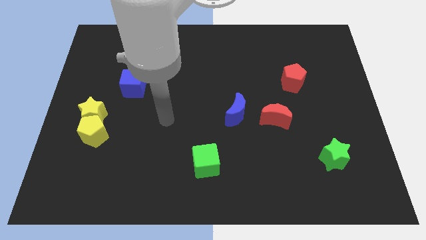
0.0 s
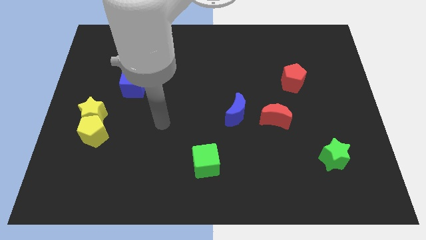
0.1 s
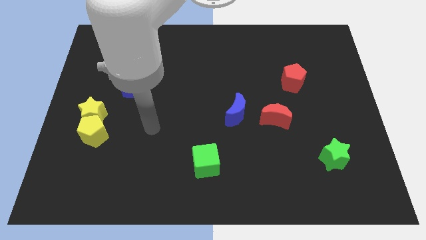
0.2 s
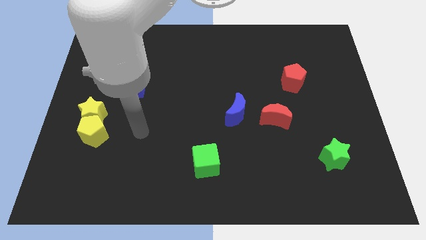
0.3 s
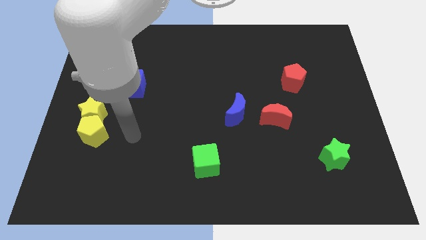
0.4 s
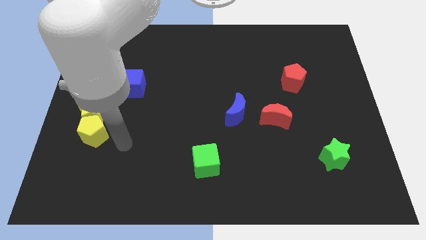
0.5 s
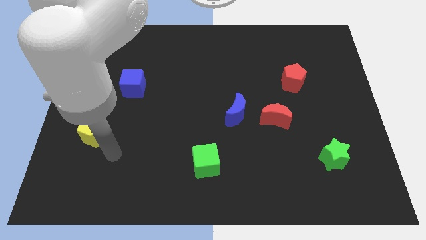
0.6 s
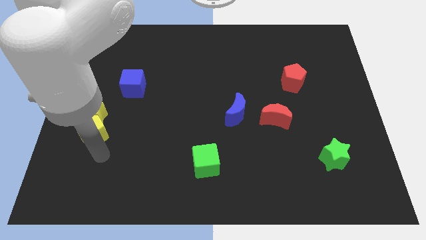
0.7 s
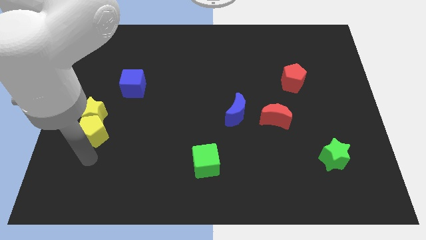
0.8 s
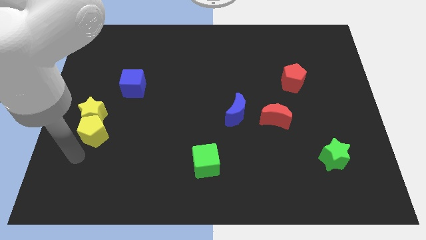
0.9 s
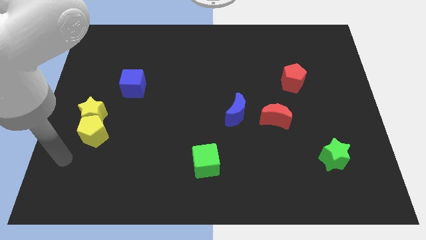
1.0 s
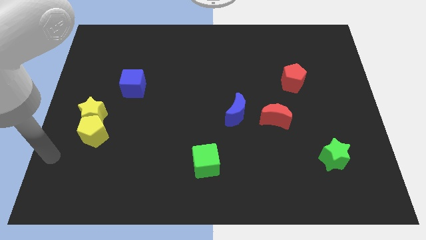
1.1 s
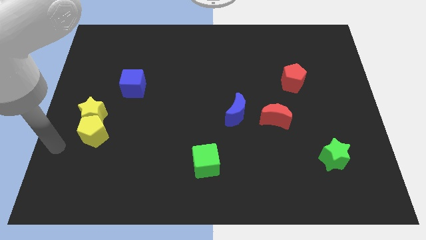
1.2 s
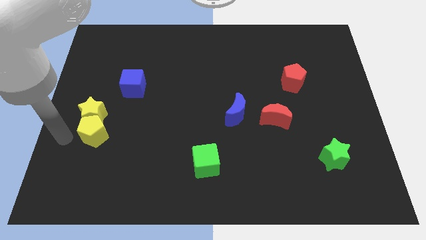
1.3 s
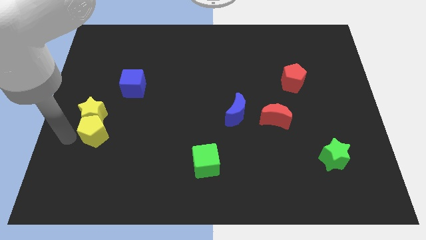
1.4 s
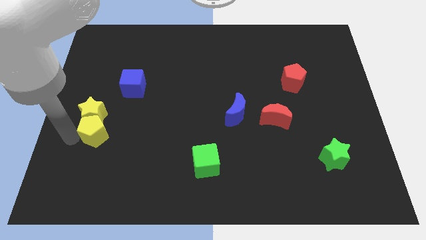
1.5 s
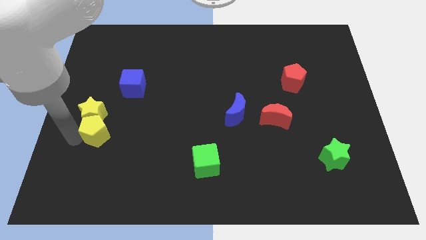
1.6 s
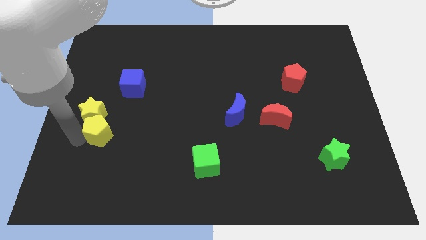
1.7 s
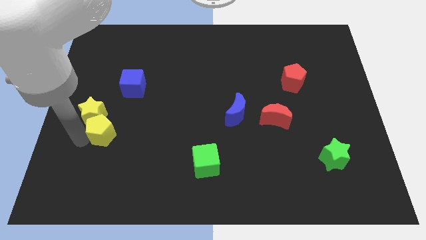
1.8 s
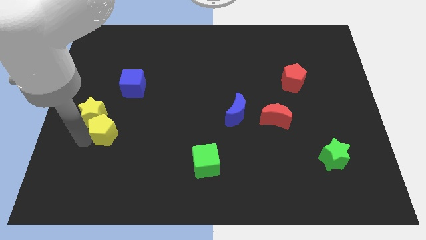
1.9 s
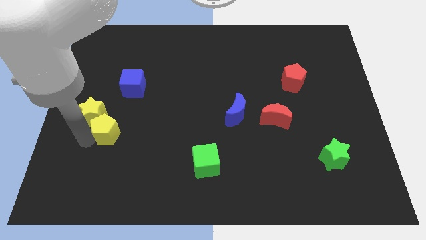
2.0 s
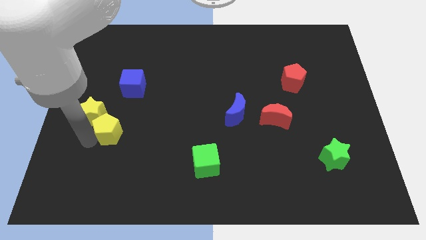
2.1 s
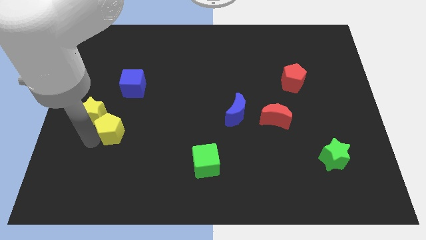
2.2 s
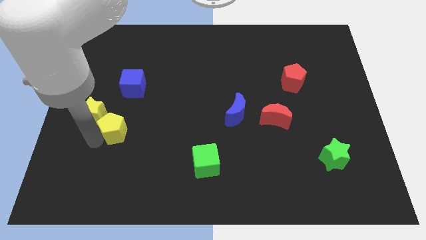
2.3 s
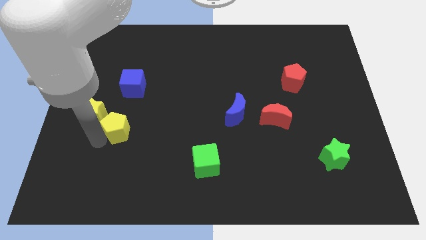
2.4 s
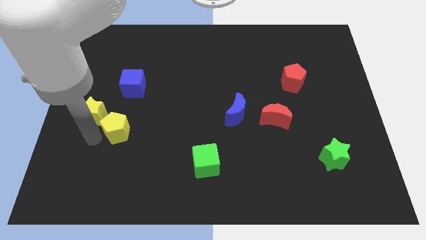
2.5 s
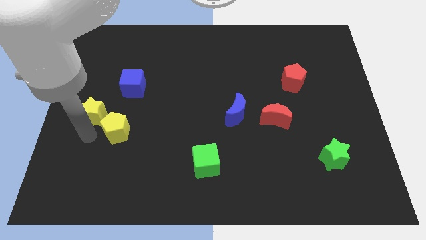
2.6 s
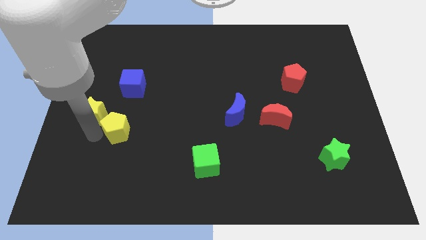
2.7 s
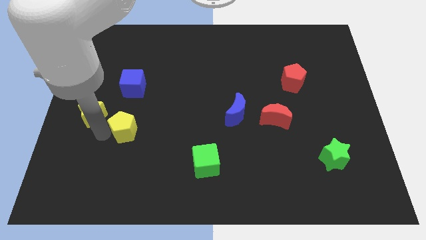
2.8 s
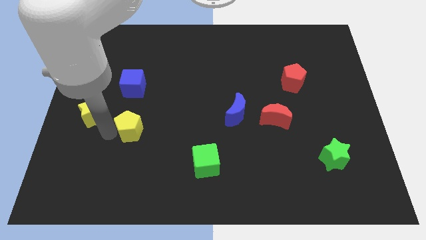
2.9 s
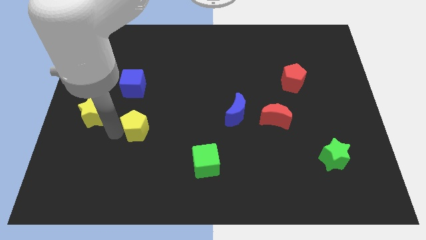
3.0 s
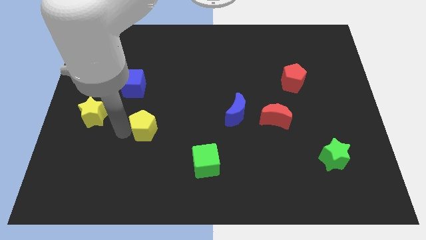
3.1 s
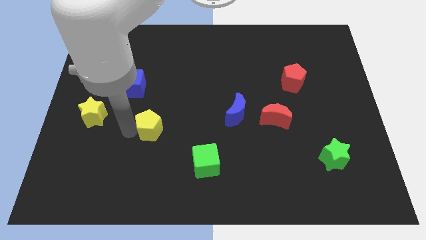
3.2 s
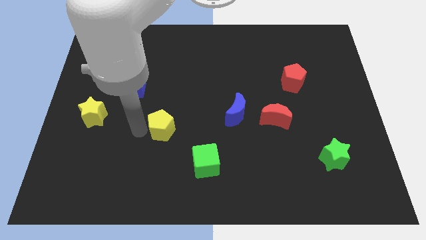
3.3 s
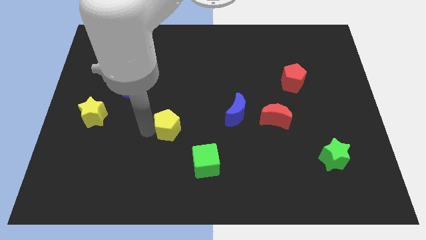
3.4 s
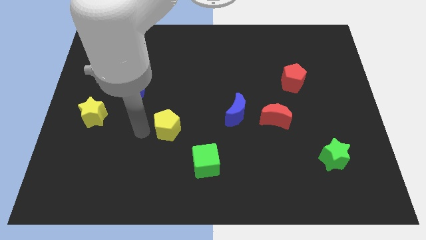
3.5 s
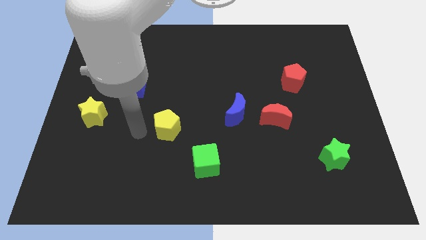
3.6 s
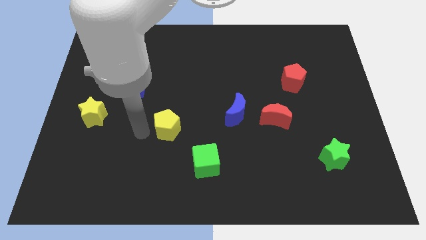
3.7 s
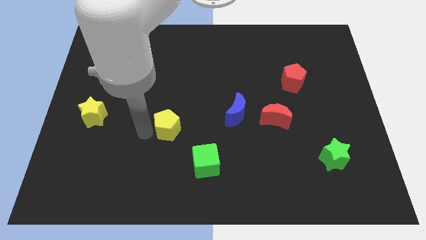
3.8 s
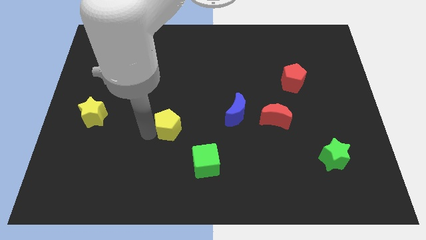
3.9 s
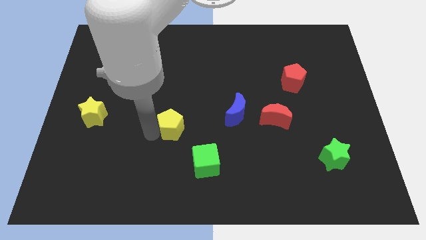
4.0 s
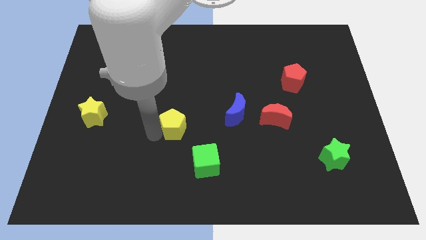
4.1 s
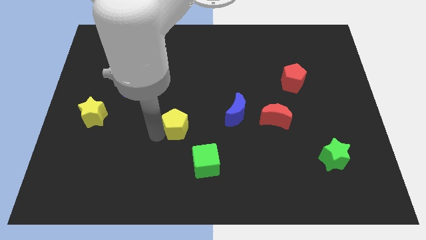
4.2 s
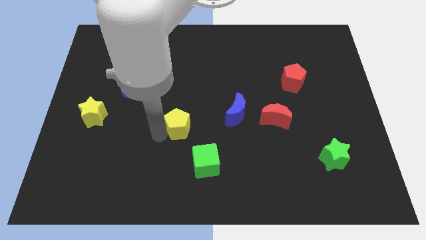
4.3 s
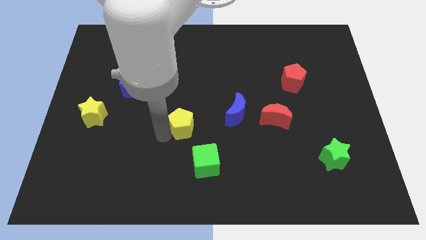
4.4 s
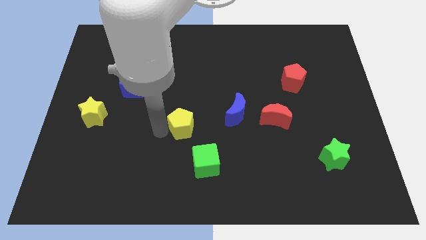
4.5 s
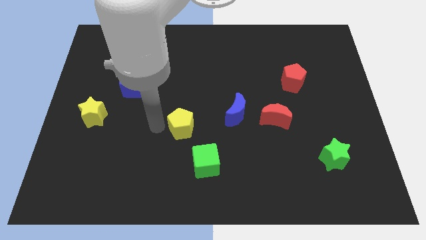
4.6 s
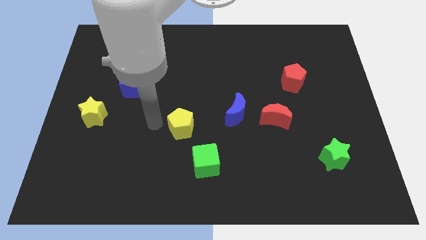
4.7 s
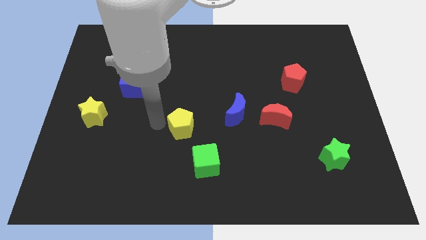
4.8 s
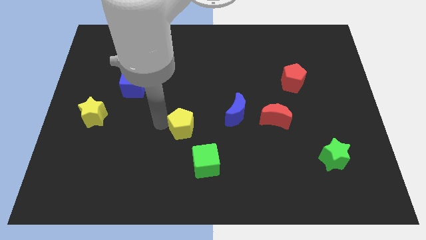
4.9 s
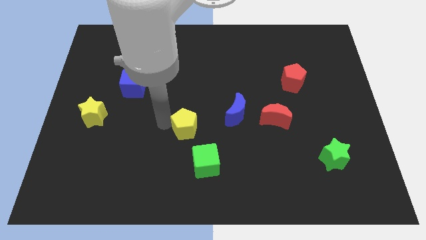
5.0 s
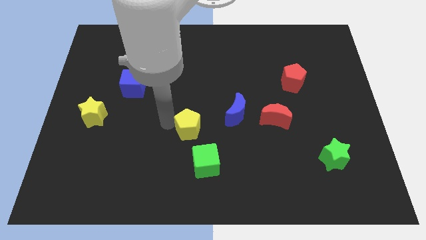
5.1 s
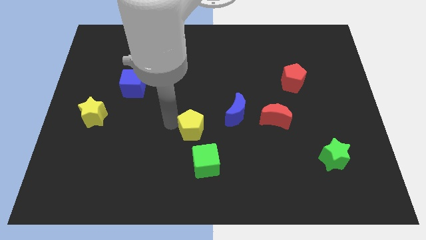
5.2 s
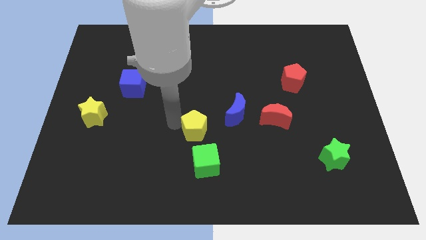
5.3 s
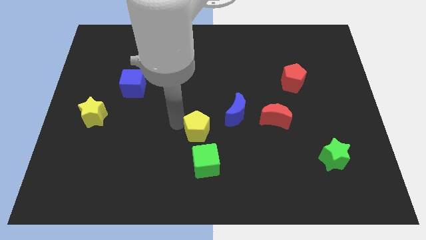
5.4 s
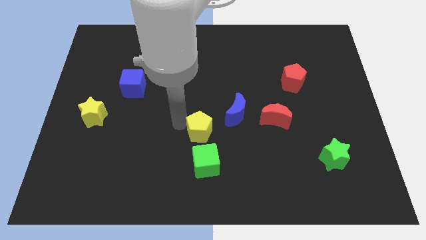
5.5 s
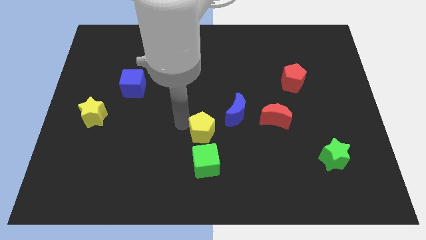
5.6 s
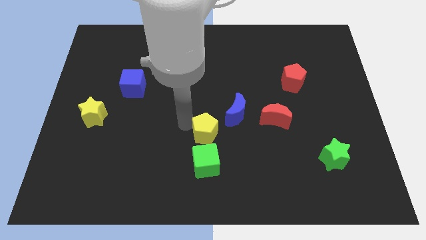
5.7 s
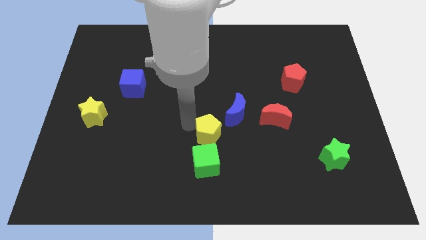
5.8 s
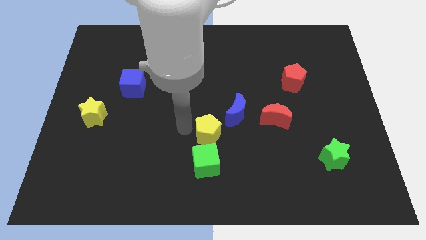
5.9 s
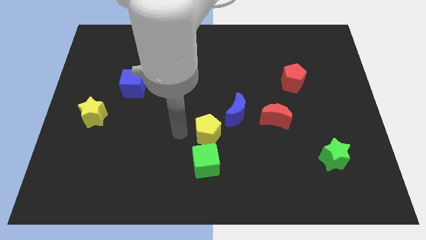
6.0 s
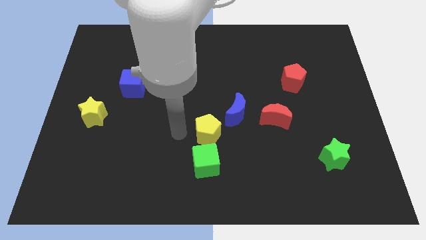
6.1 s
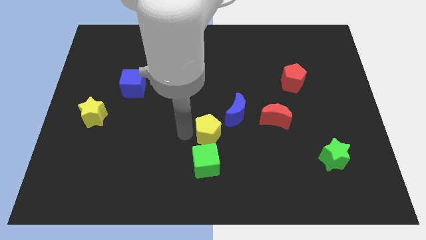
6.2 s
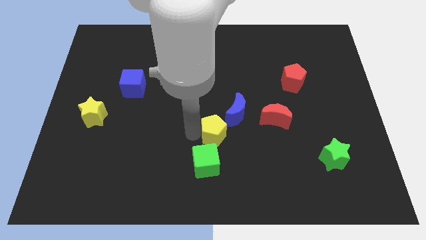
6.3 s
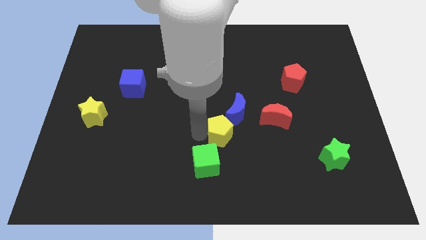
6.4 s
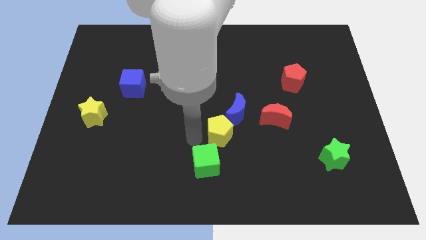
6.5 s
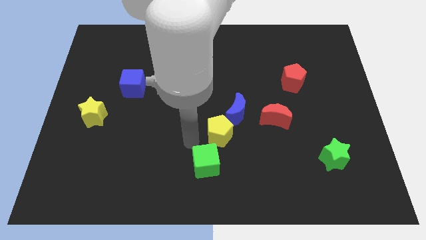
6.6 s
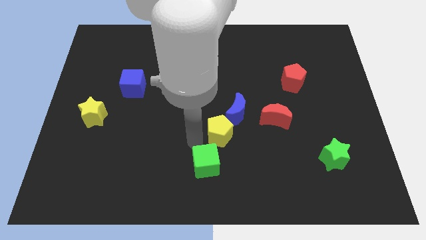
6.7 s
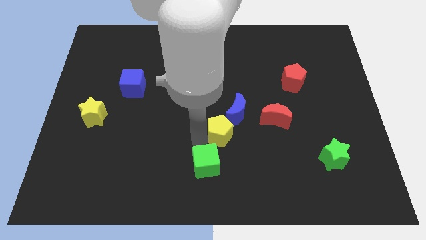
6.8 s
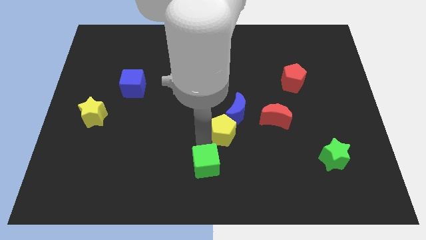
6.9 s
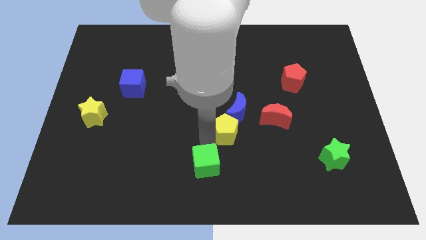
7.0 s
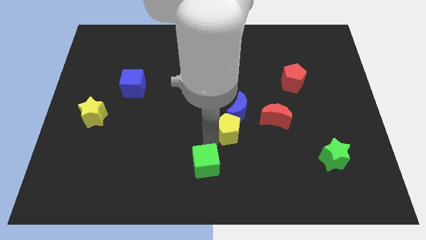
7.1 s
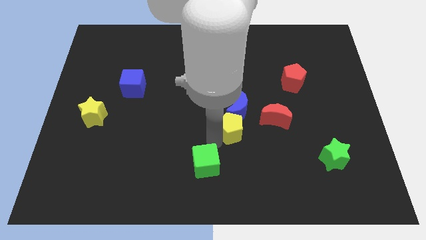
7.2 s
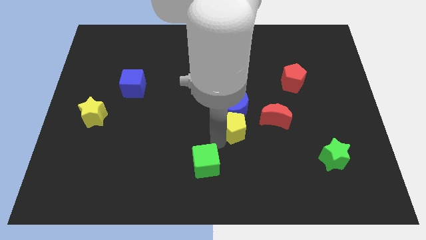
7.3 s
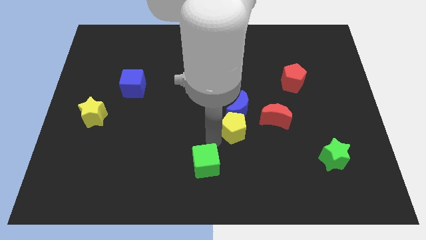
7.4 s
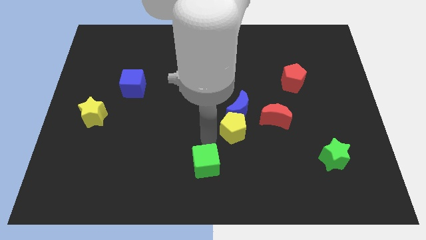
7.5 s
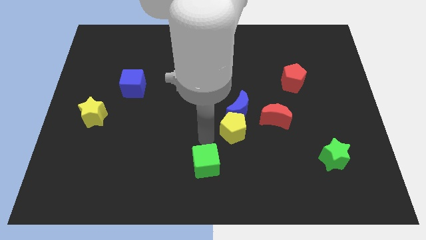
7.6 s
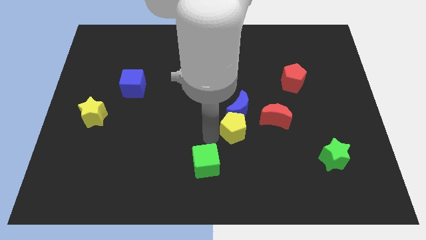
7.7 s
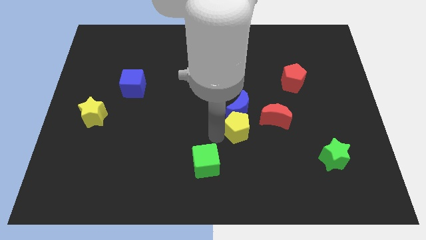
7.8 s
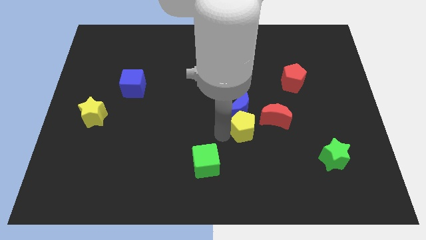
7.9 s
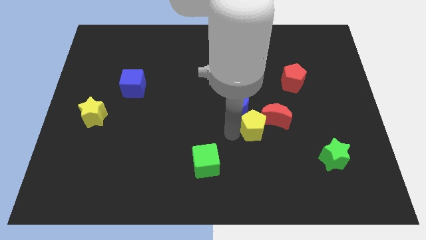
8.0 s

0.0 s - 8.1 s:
slide the yellow pentagon to the red moon
